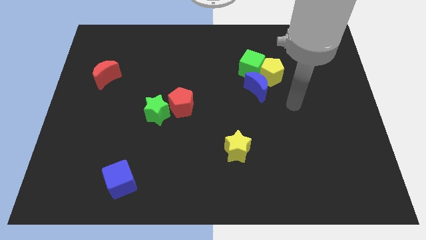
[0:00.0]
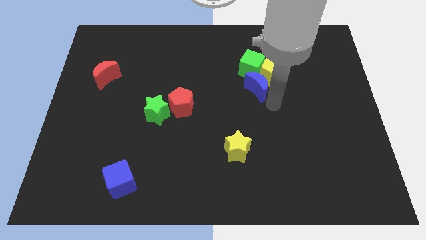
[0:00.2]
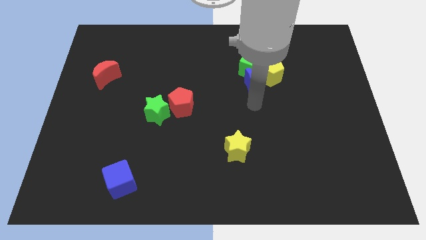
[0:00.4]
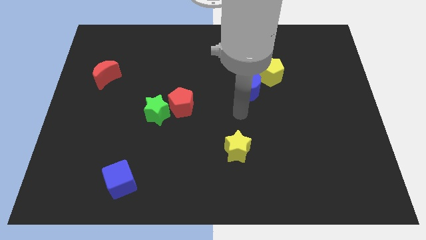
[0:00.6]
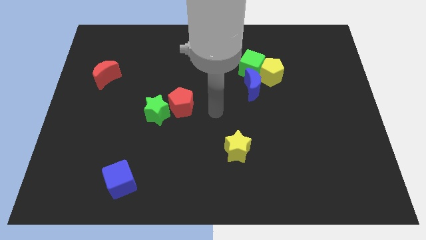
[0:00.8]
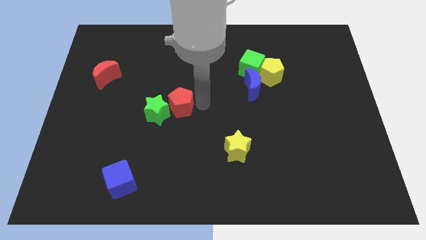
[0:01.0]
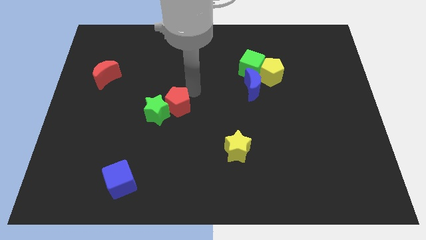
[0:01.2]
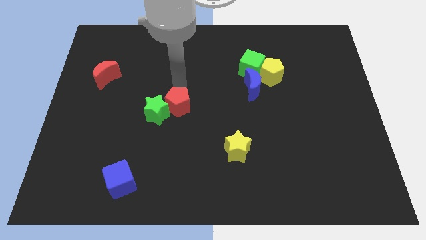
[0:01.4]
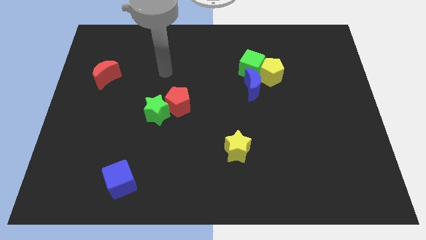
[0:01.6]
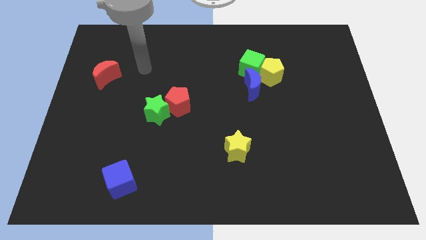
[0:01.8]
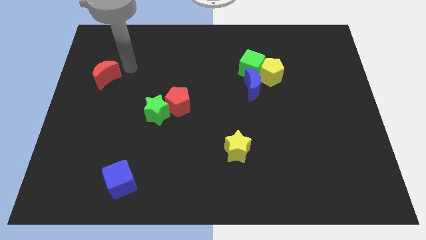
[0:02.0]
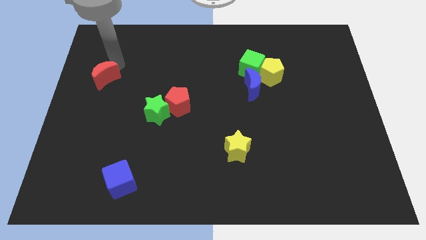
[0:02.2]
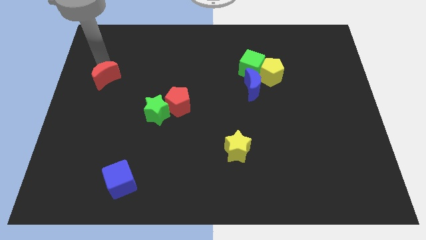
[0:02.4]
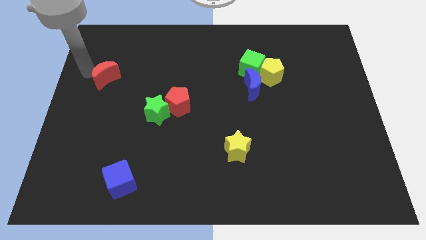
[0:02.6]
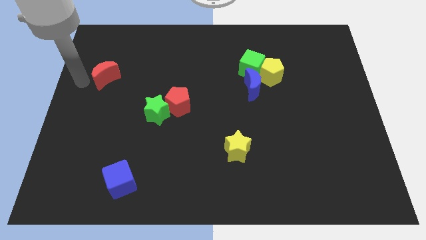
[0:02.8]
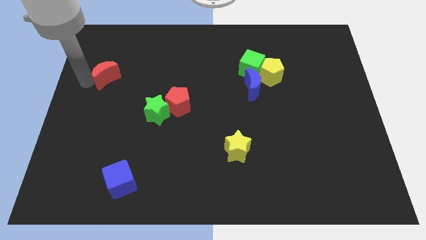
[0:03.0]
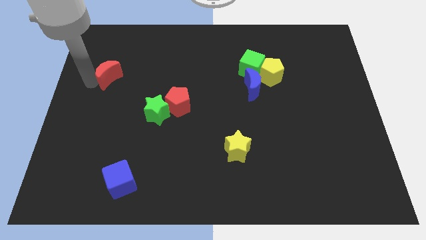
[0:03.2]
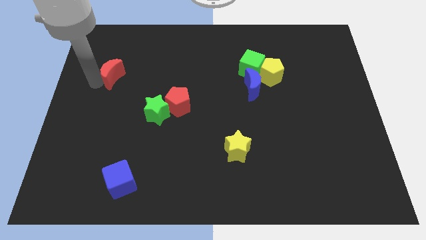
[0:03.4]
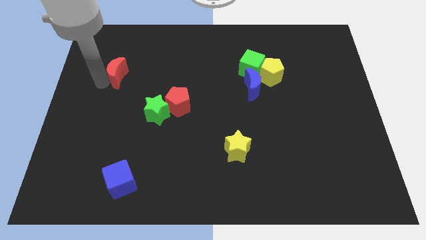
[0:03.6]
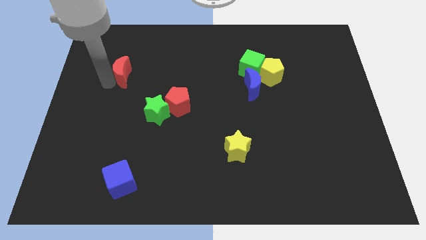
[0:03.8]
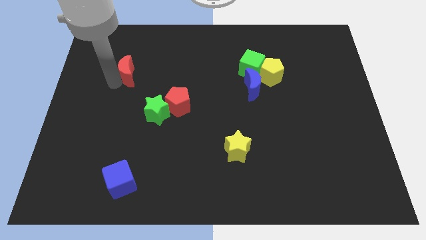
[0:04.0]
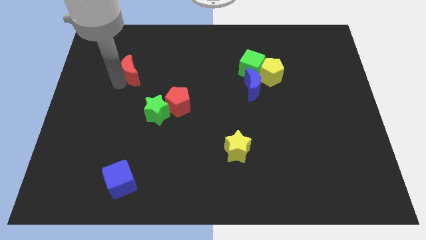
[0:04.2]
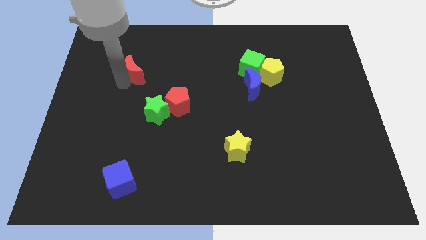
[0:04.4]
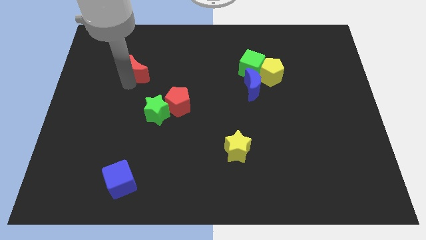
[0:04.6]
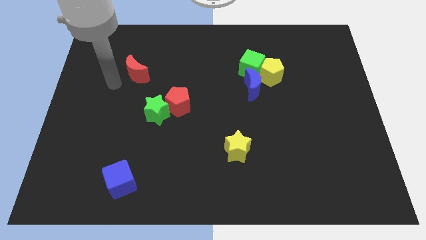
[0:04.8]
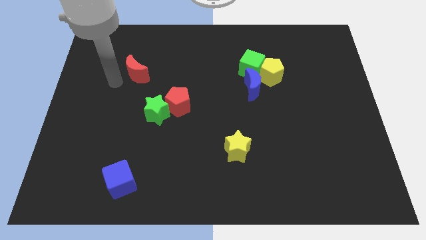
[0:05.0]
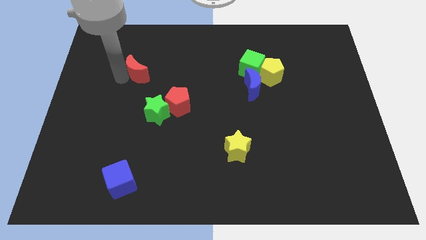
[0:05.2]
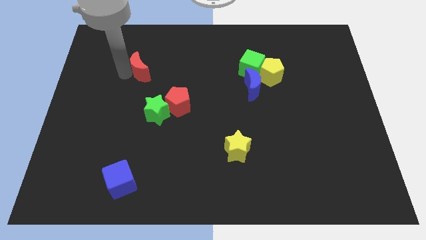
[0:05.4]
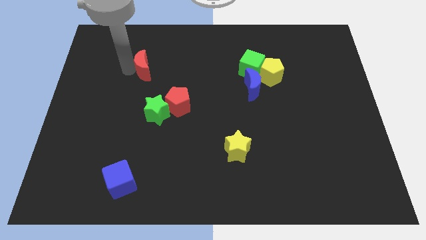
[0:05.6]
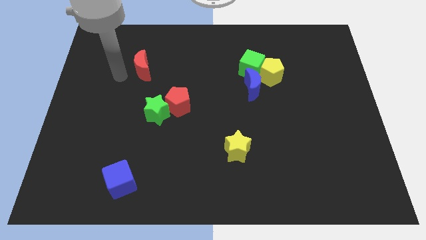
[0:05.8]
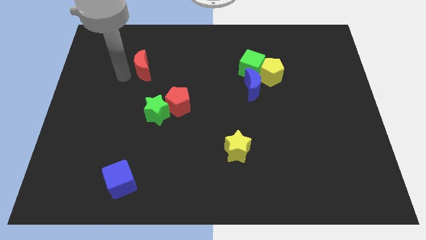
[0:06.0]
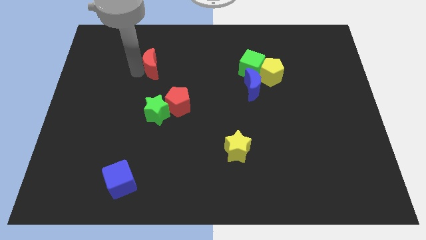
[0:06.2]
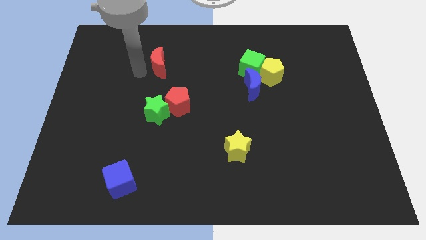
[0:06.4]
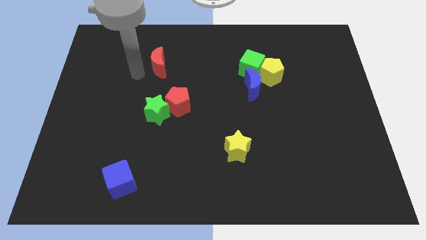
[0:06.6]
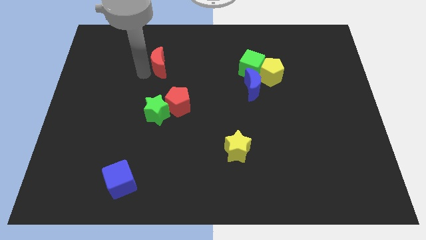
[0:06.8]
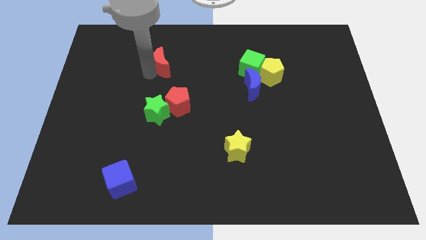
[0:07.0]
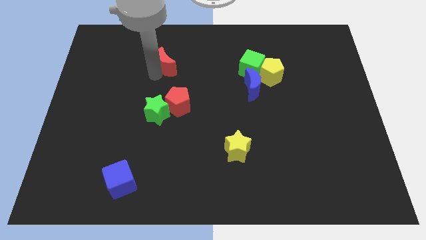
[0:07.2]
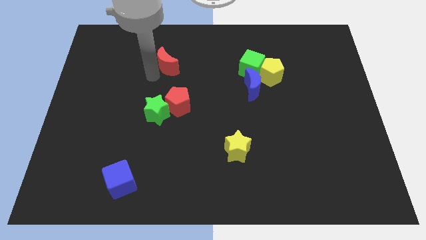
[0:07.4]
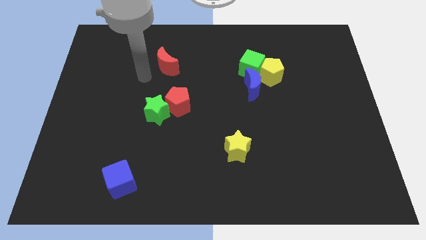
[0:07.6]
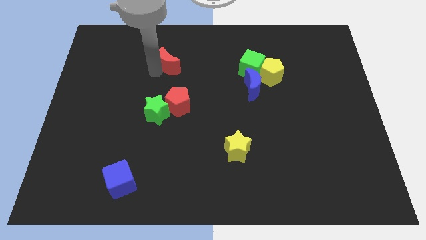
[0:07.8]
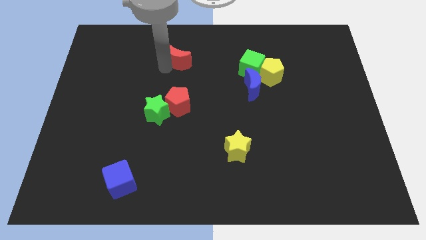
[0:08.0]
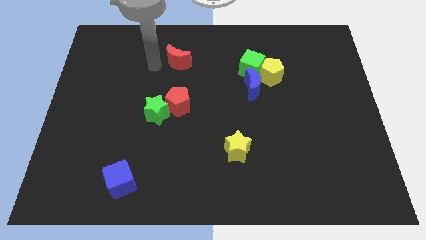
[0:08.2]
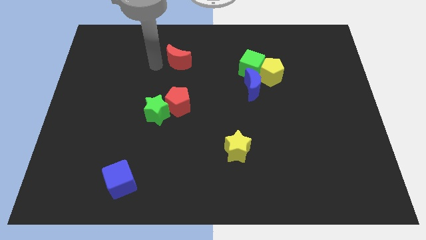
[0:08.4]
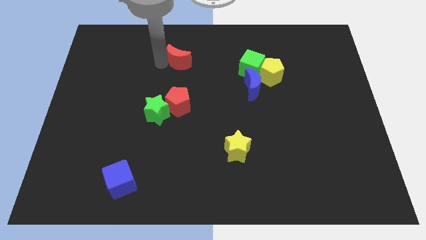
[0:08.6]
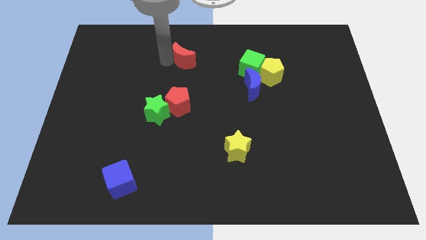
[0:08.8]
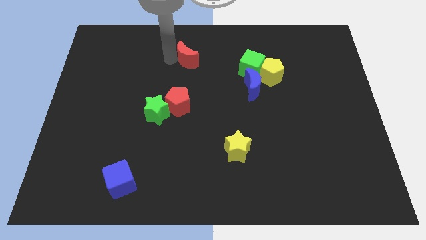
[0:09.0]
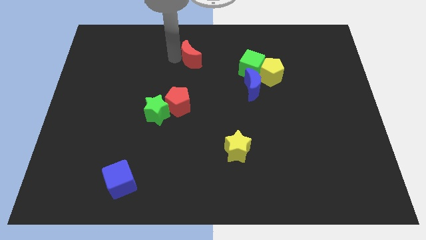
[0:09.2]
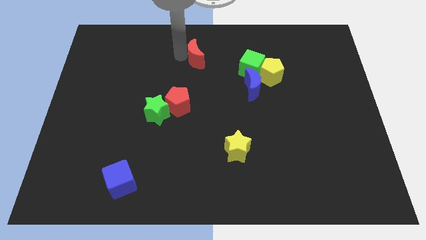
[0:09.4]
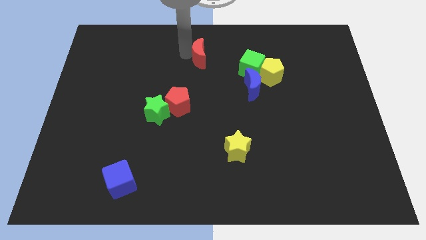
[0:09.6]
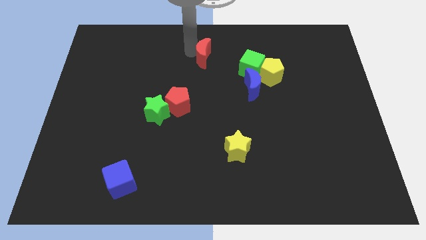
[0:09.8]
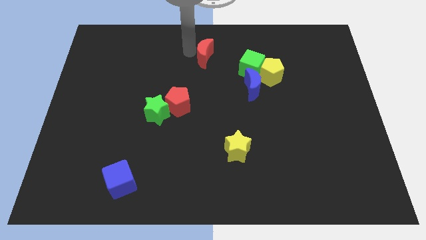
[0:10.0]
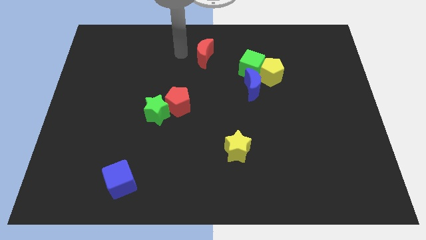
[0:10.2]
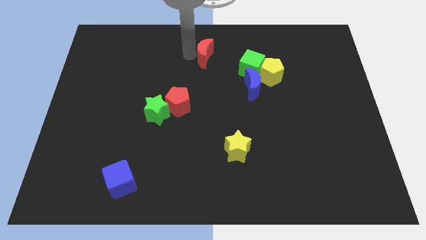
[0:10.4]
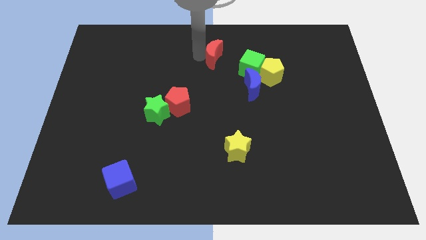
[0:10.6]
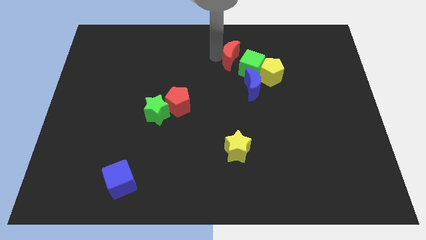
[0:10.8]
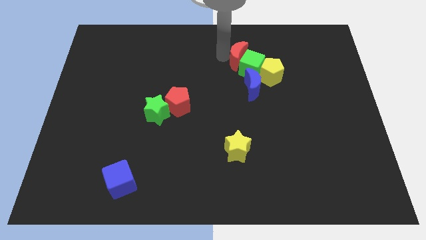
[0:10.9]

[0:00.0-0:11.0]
move the red moon to the green cube

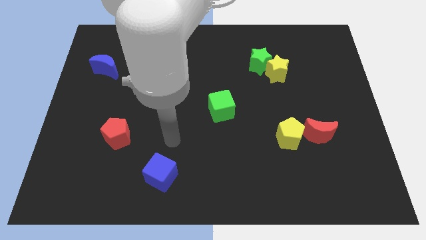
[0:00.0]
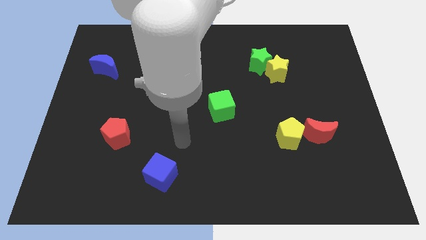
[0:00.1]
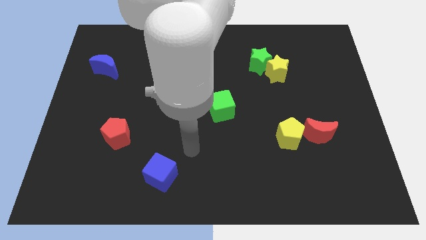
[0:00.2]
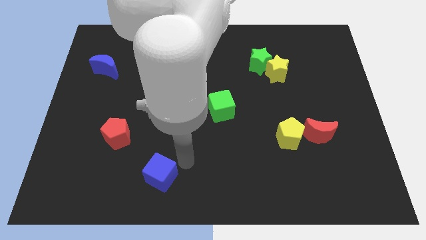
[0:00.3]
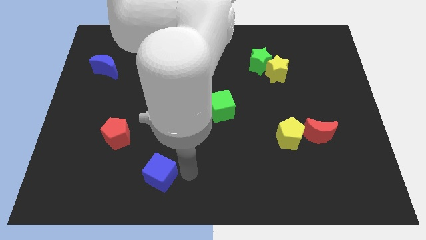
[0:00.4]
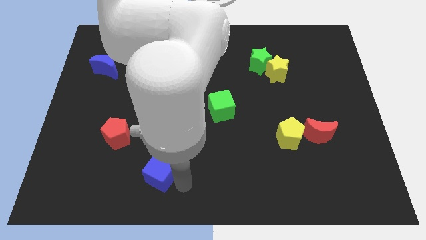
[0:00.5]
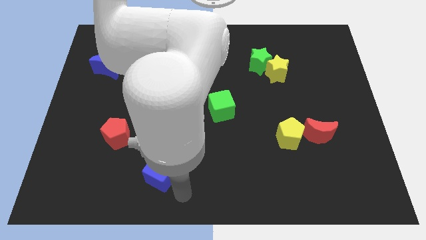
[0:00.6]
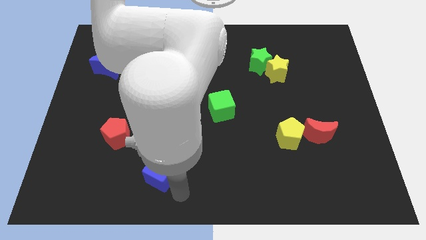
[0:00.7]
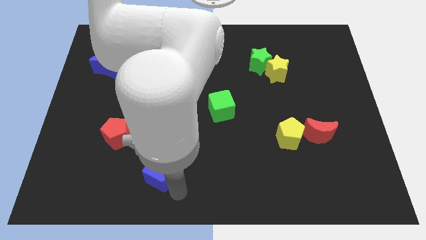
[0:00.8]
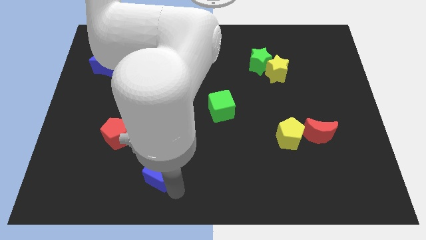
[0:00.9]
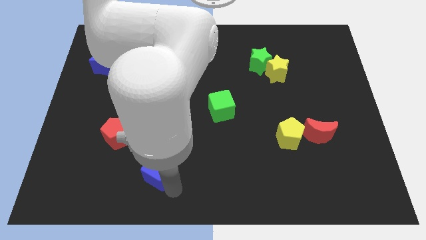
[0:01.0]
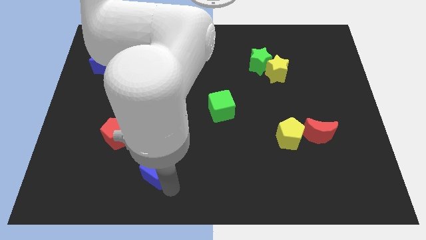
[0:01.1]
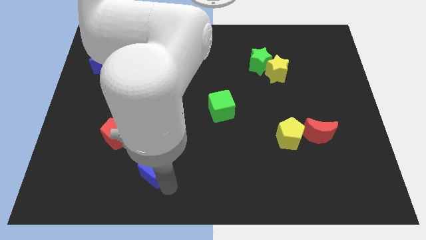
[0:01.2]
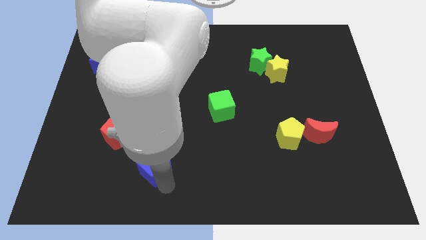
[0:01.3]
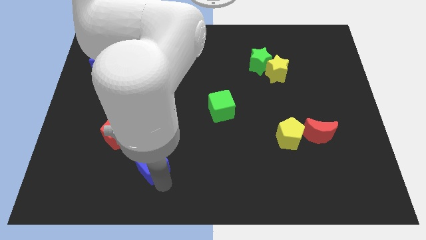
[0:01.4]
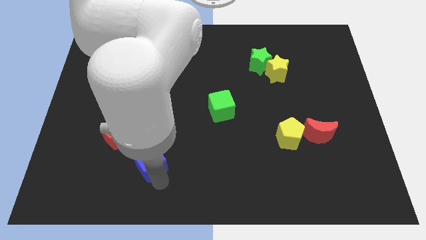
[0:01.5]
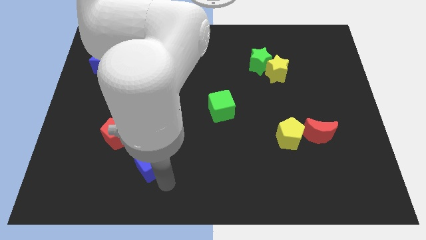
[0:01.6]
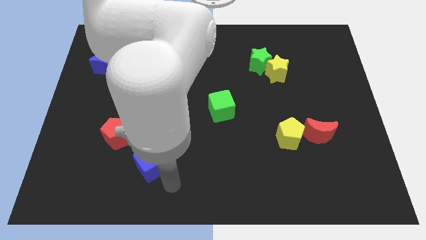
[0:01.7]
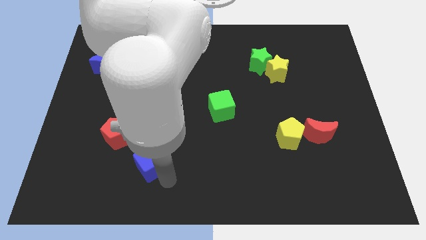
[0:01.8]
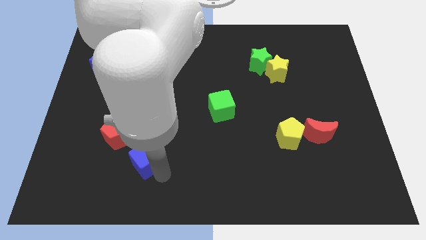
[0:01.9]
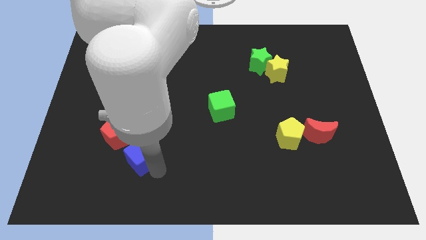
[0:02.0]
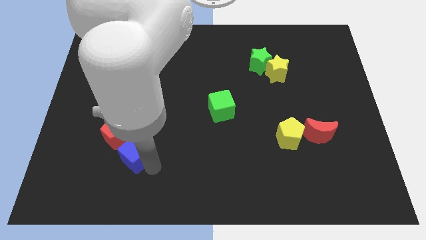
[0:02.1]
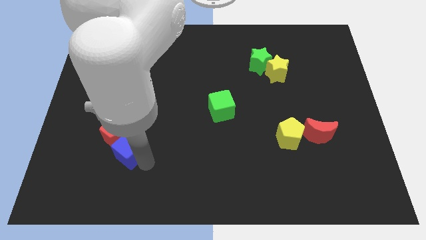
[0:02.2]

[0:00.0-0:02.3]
slide the blue cube next to the red pentagon
